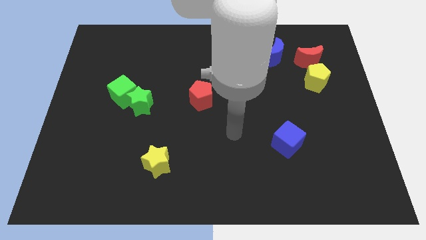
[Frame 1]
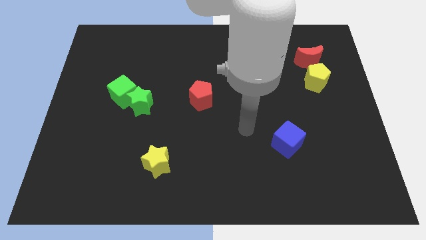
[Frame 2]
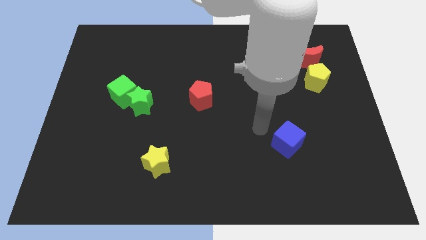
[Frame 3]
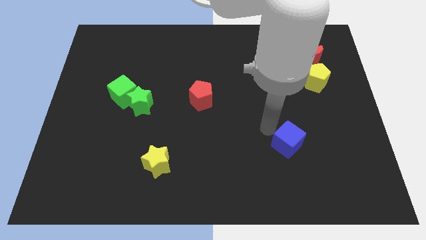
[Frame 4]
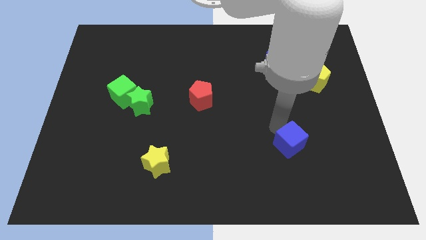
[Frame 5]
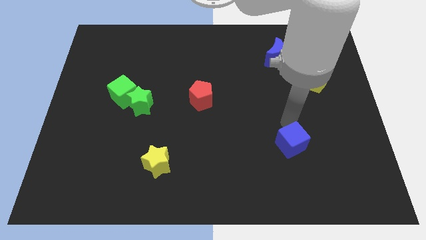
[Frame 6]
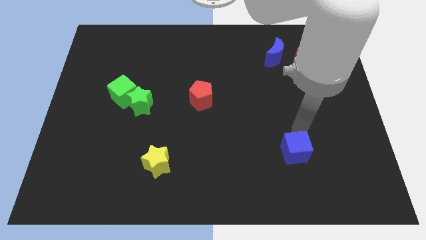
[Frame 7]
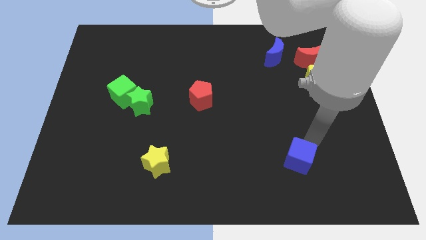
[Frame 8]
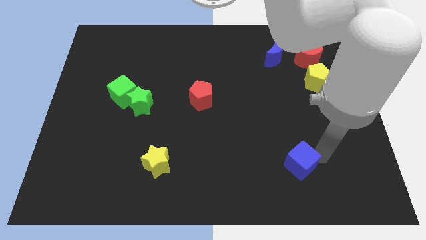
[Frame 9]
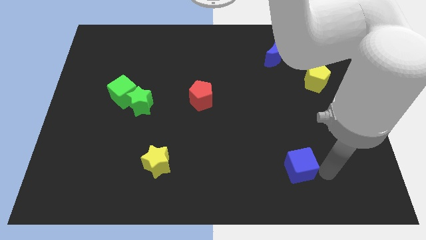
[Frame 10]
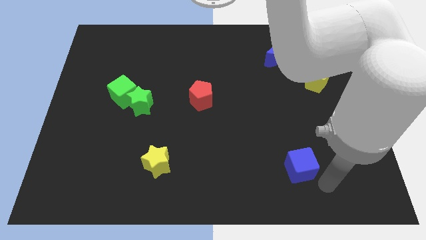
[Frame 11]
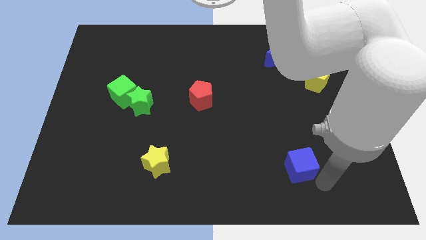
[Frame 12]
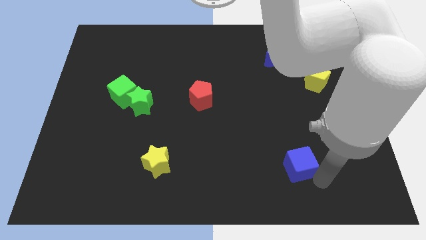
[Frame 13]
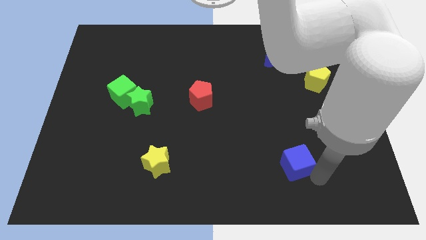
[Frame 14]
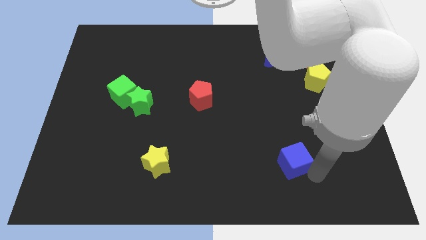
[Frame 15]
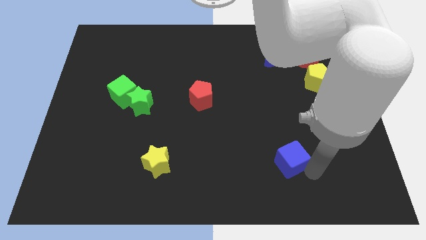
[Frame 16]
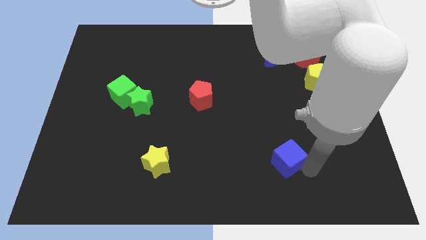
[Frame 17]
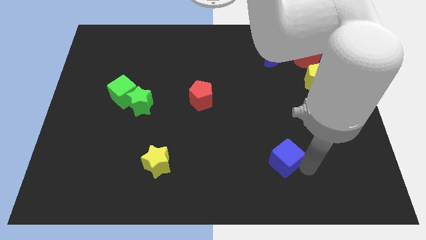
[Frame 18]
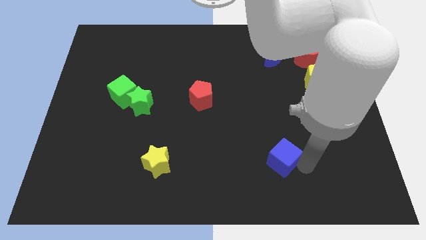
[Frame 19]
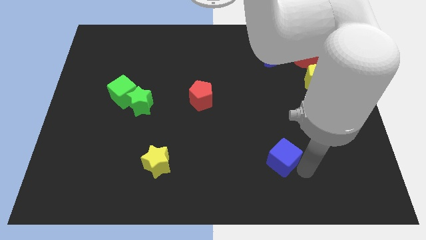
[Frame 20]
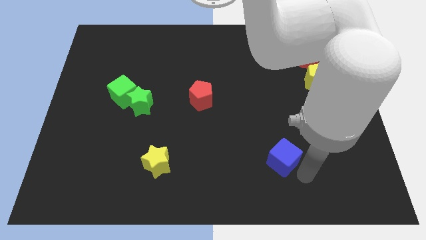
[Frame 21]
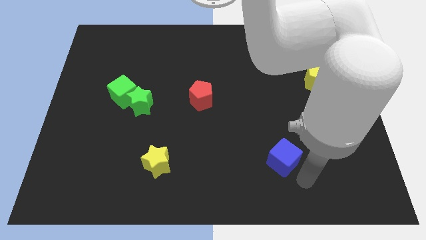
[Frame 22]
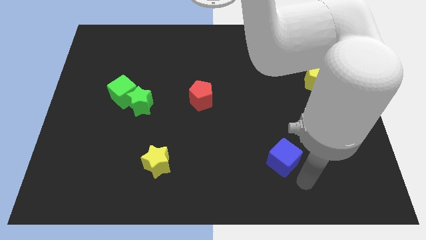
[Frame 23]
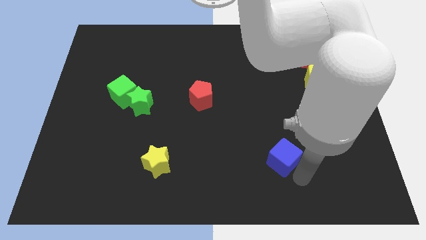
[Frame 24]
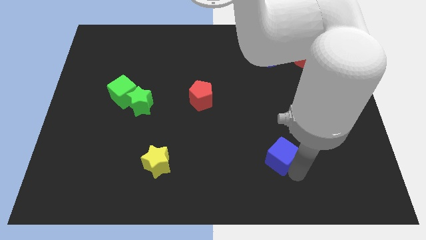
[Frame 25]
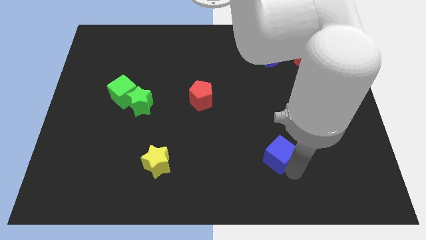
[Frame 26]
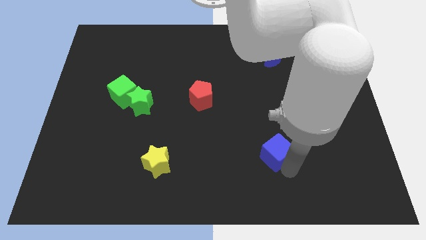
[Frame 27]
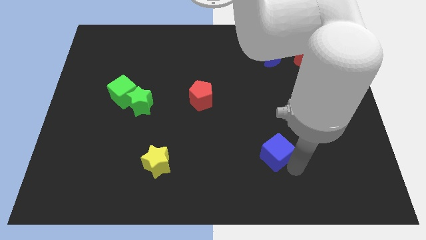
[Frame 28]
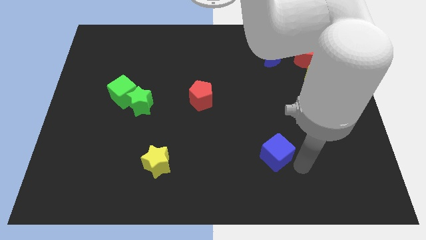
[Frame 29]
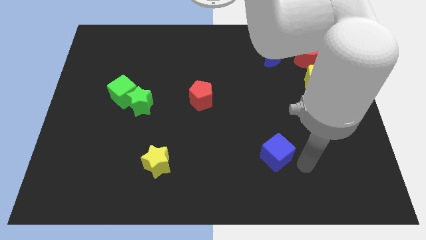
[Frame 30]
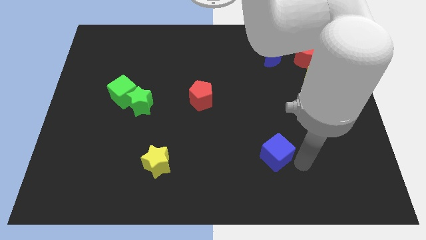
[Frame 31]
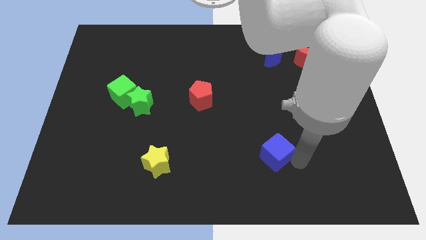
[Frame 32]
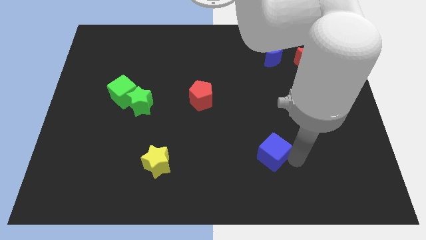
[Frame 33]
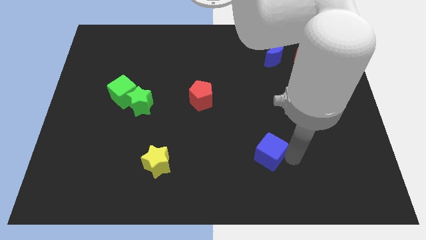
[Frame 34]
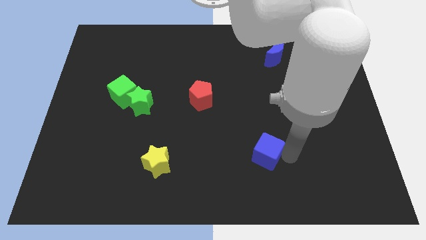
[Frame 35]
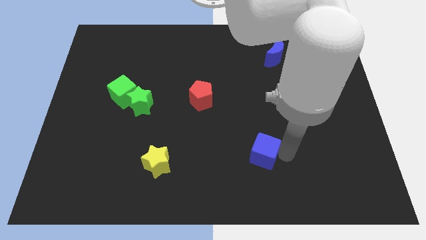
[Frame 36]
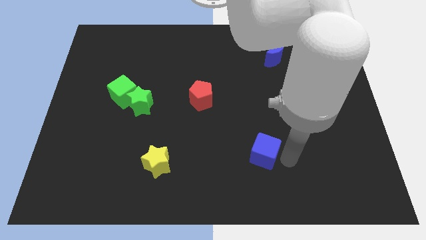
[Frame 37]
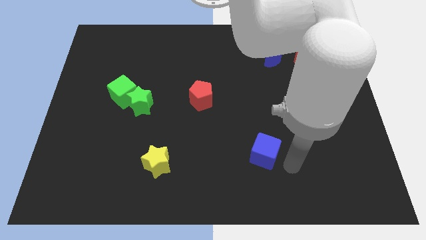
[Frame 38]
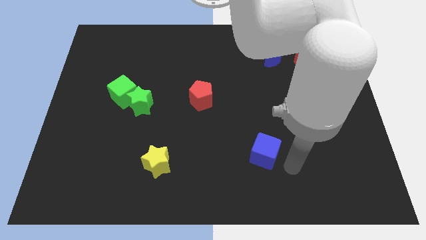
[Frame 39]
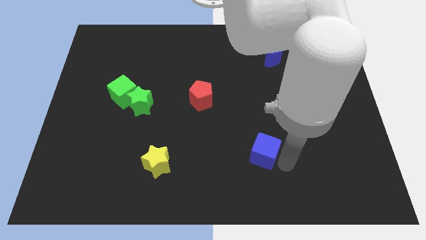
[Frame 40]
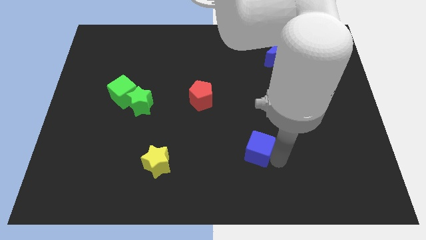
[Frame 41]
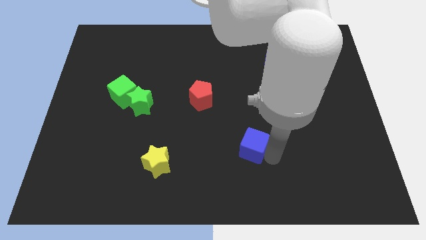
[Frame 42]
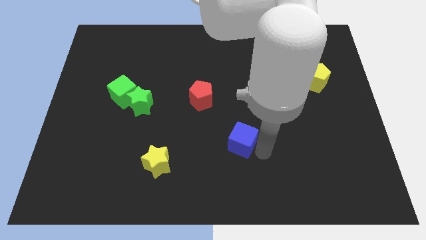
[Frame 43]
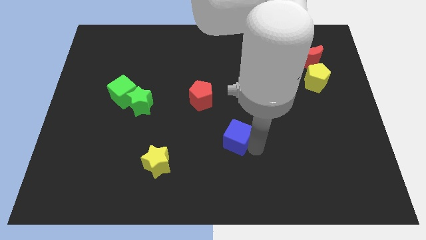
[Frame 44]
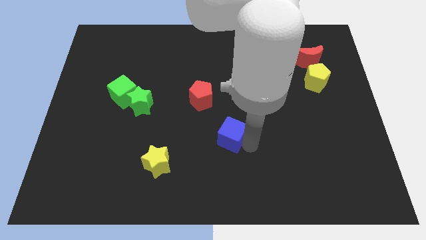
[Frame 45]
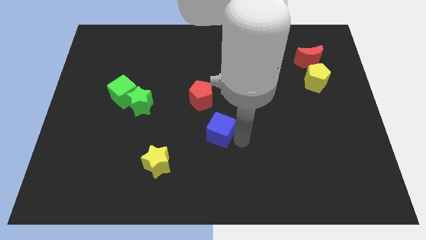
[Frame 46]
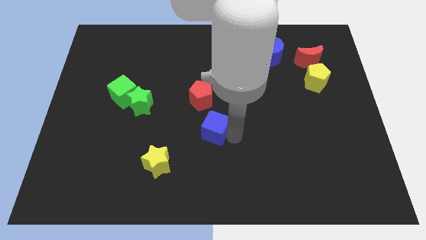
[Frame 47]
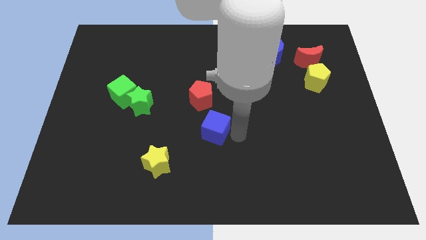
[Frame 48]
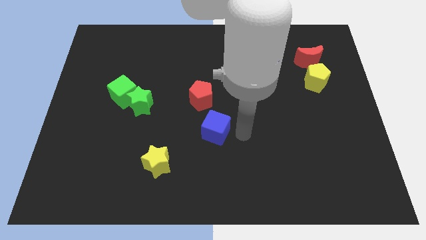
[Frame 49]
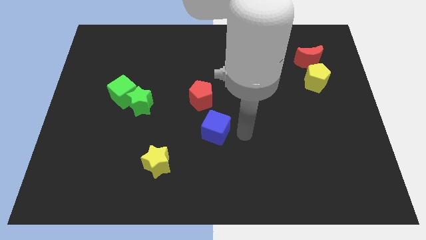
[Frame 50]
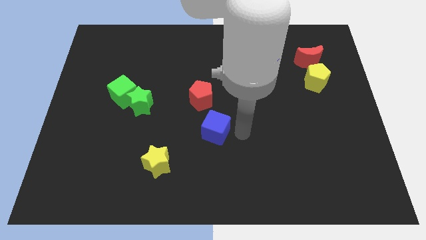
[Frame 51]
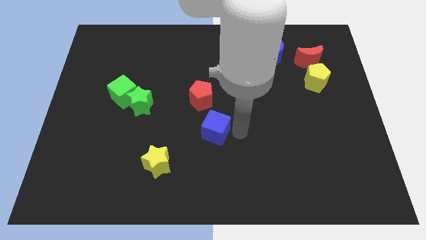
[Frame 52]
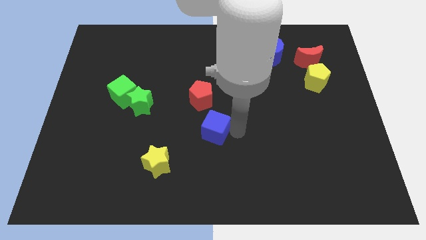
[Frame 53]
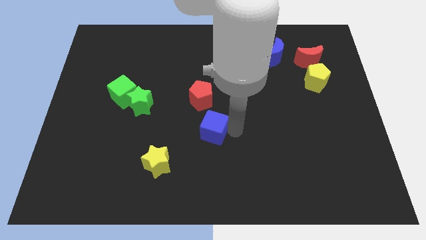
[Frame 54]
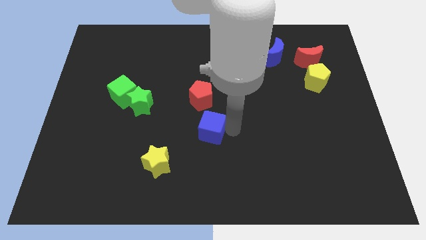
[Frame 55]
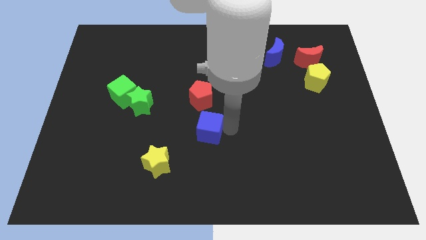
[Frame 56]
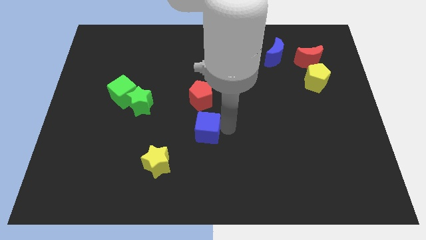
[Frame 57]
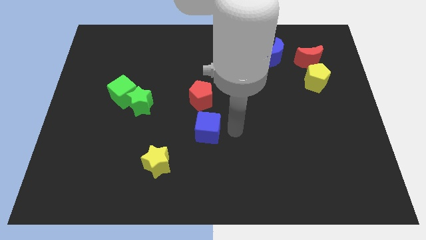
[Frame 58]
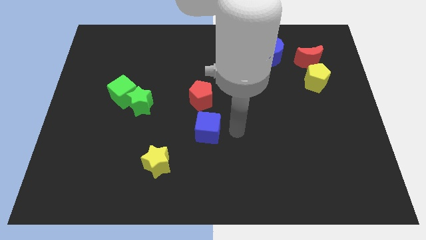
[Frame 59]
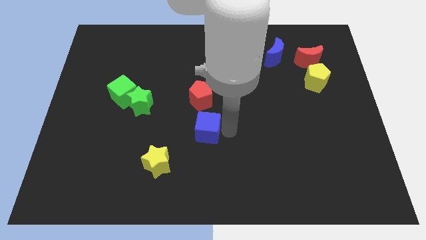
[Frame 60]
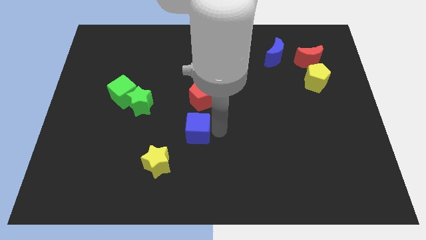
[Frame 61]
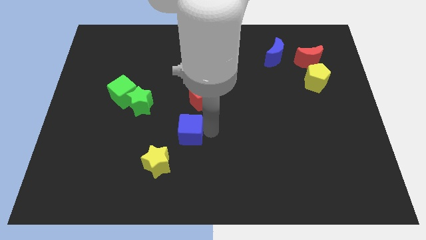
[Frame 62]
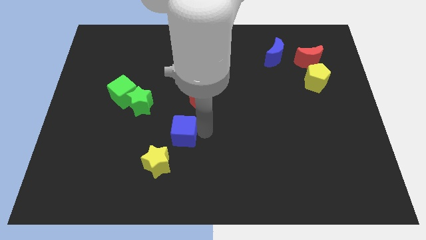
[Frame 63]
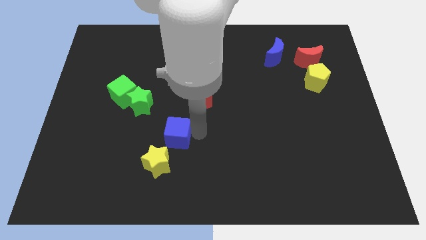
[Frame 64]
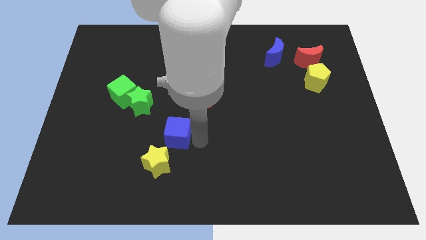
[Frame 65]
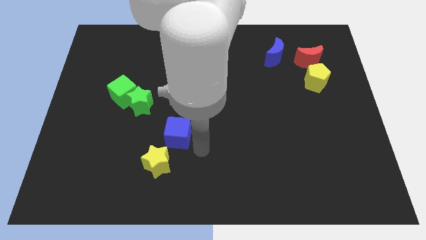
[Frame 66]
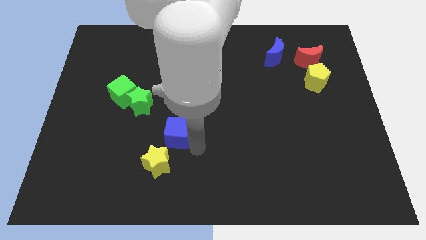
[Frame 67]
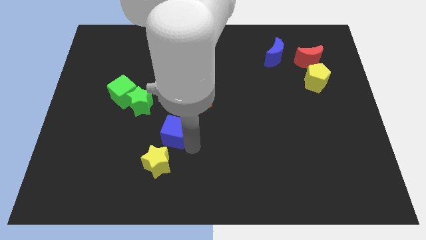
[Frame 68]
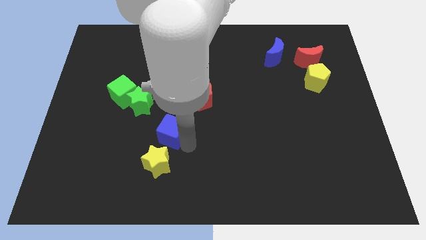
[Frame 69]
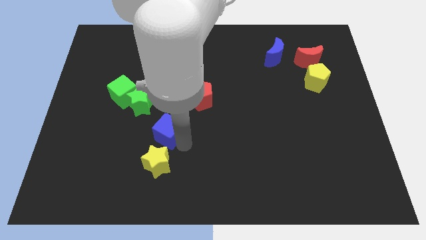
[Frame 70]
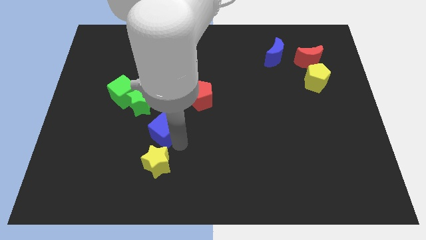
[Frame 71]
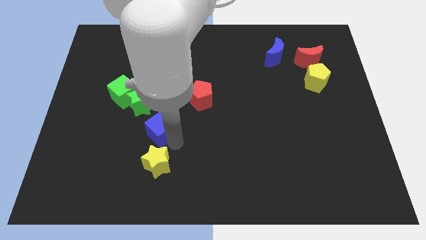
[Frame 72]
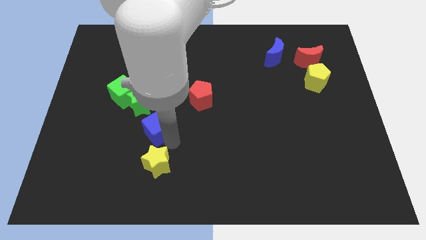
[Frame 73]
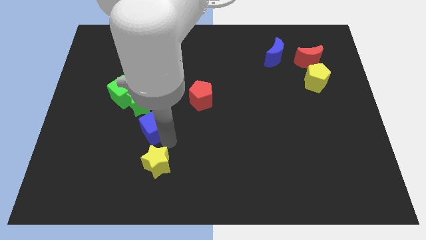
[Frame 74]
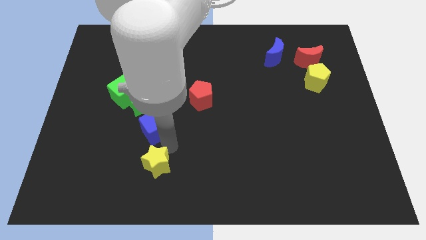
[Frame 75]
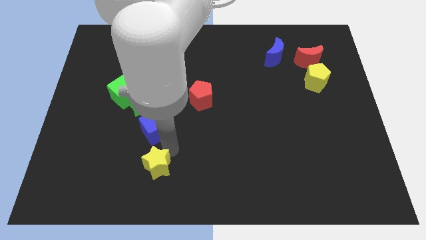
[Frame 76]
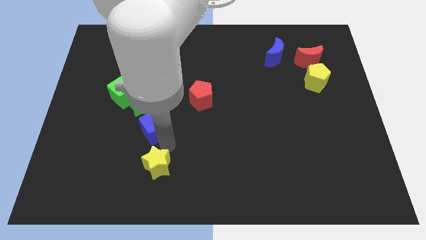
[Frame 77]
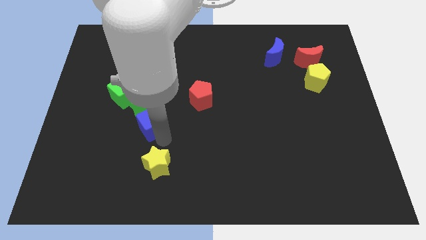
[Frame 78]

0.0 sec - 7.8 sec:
push the blue cube diagonally down and to the right of the green cube
